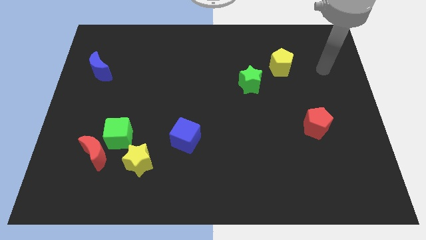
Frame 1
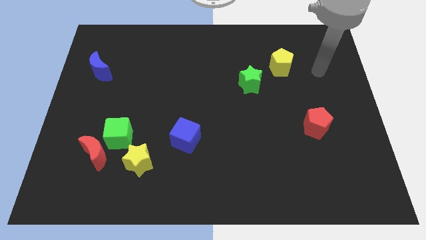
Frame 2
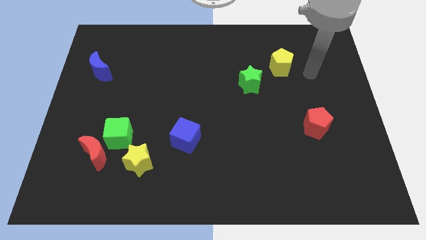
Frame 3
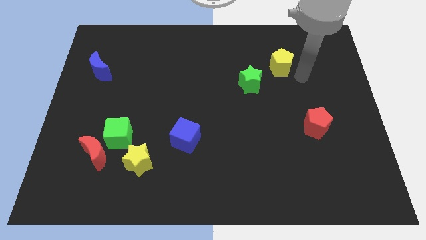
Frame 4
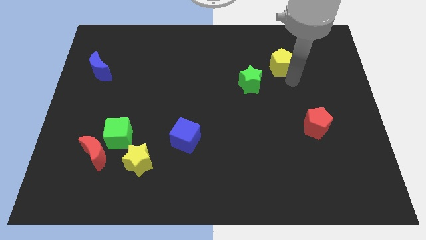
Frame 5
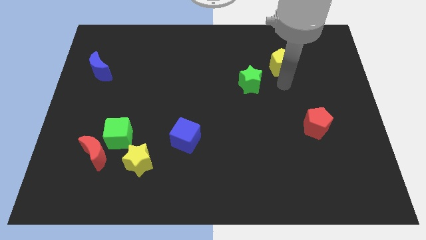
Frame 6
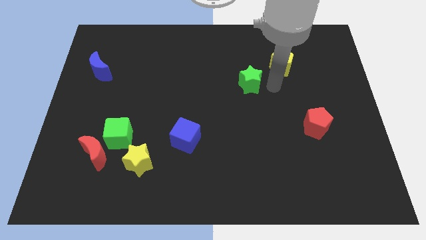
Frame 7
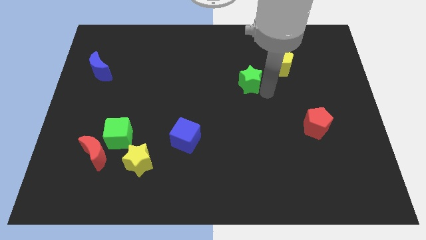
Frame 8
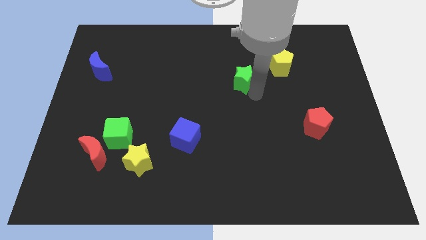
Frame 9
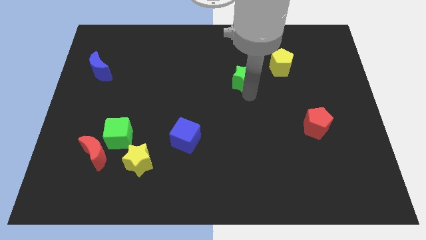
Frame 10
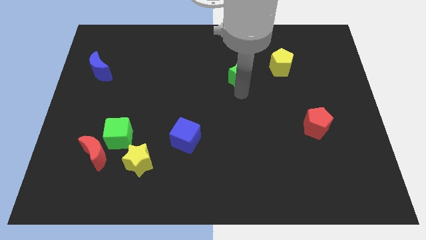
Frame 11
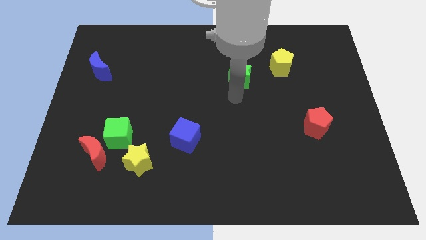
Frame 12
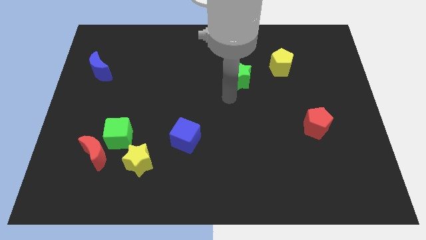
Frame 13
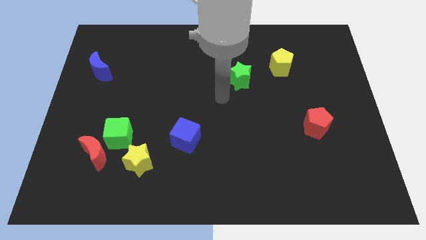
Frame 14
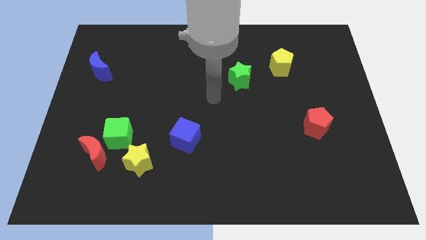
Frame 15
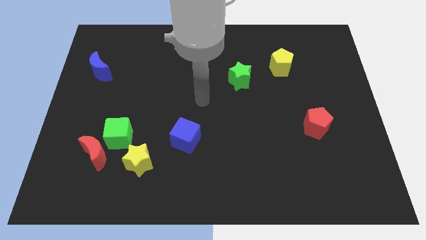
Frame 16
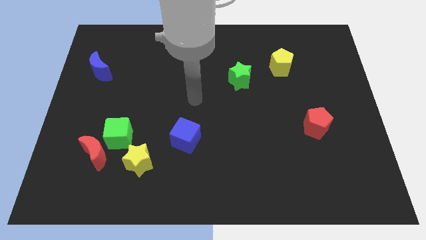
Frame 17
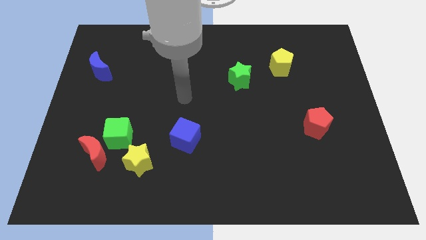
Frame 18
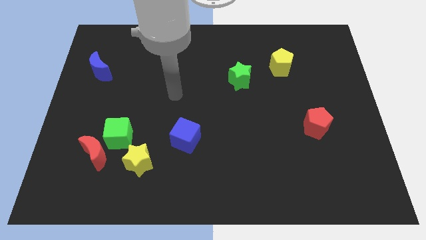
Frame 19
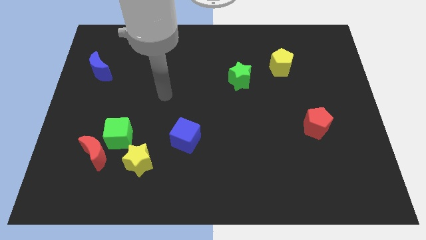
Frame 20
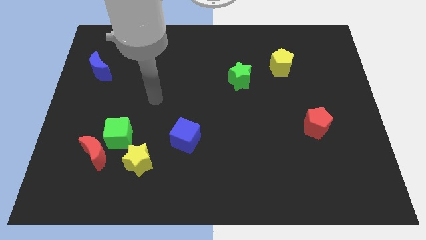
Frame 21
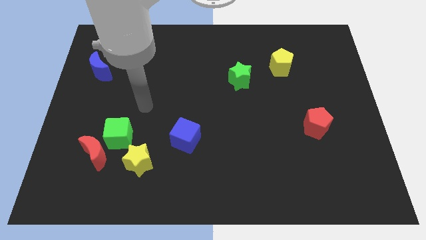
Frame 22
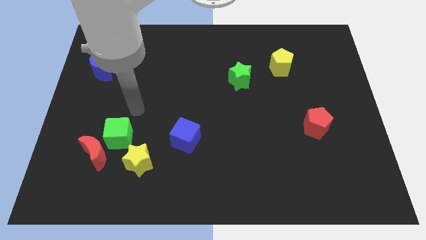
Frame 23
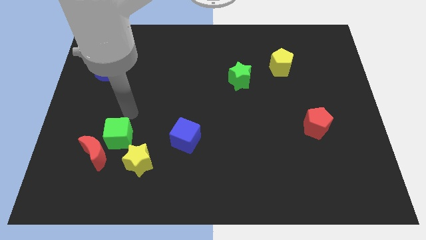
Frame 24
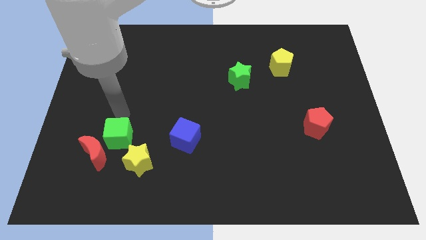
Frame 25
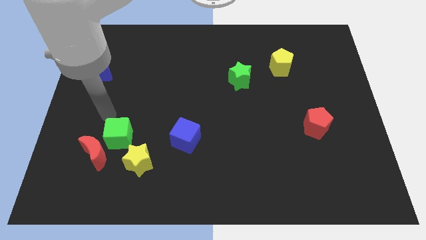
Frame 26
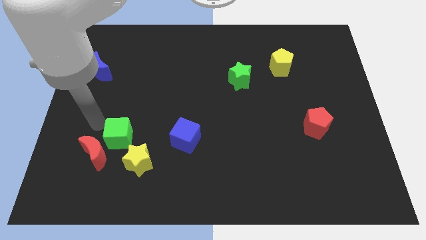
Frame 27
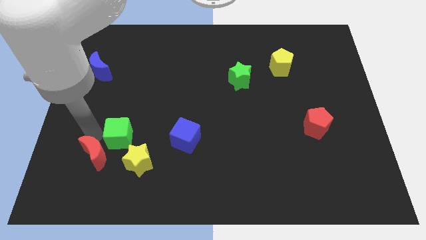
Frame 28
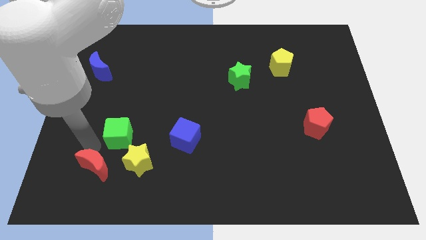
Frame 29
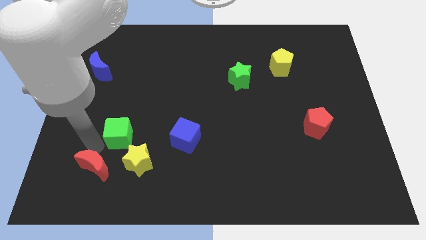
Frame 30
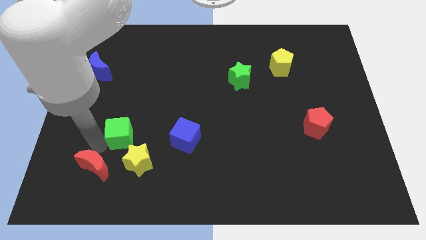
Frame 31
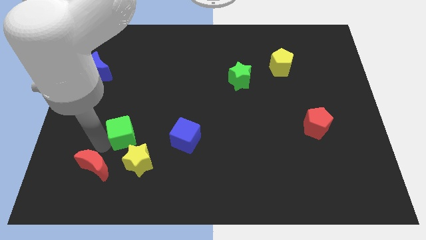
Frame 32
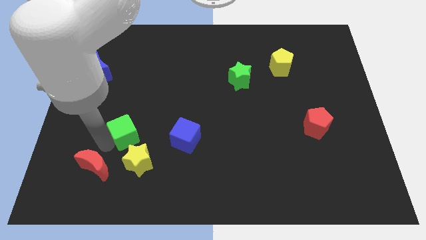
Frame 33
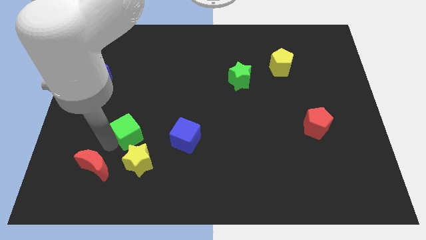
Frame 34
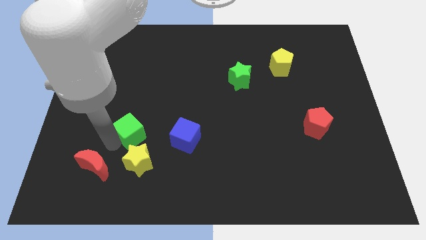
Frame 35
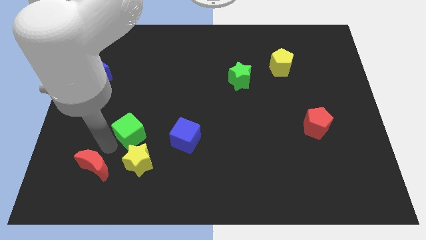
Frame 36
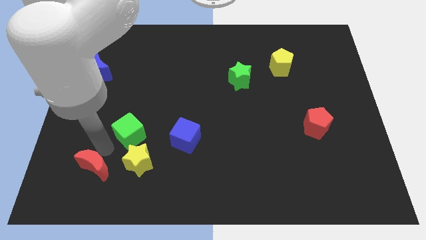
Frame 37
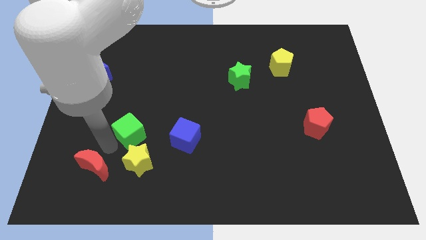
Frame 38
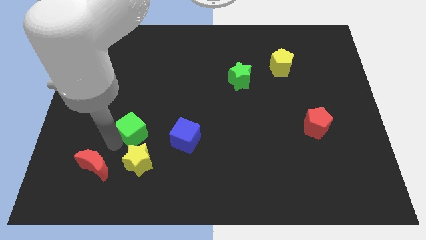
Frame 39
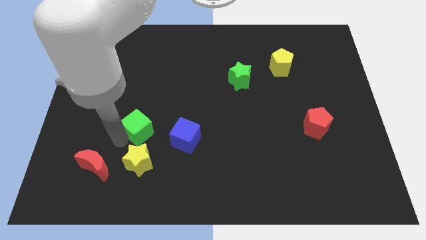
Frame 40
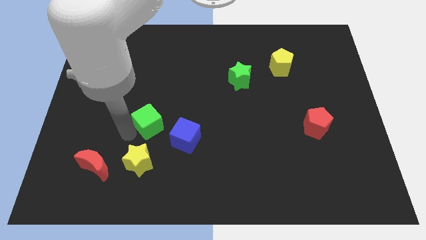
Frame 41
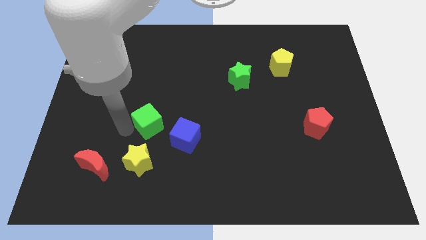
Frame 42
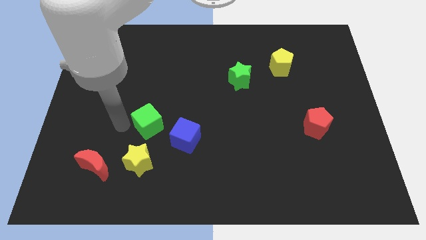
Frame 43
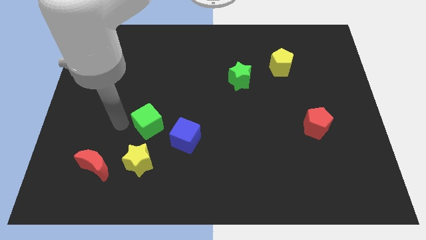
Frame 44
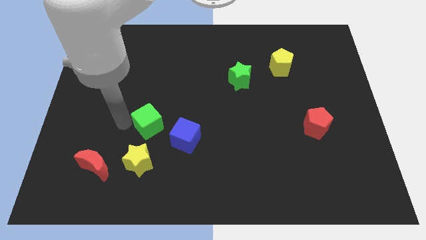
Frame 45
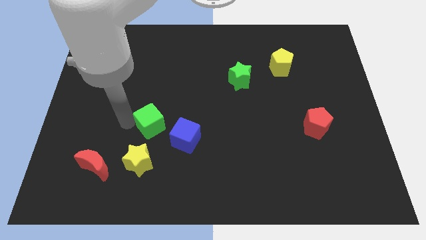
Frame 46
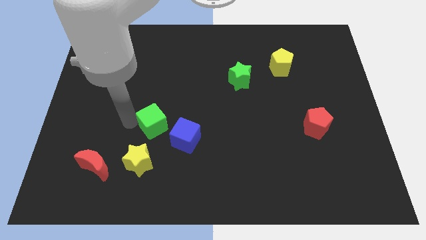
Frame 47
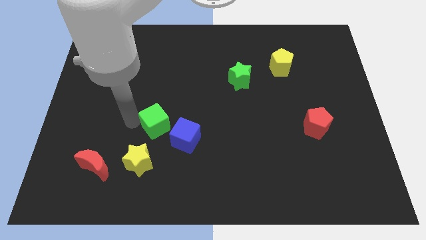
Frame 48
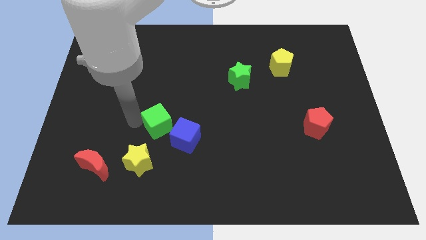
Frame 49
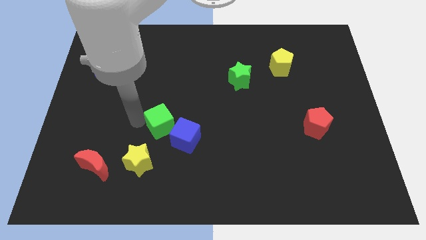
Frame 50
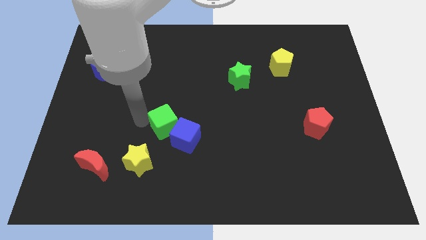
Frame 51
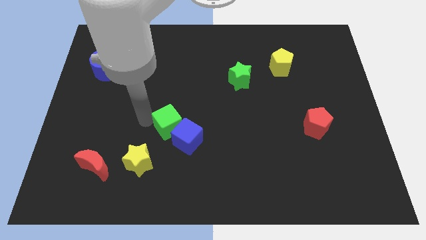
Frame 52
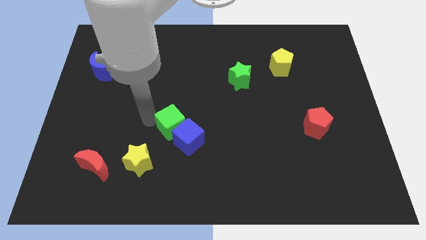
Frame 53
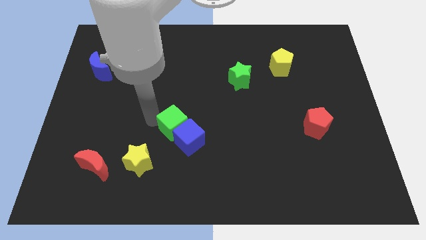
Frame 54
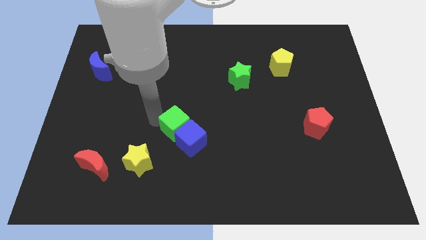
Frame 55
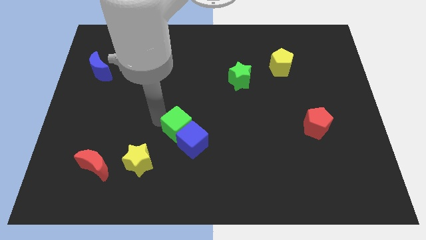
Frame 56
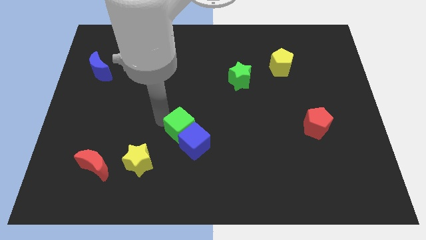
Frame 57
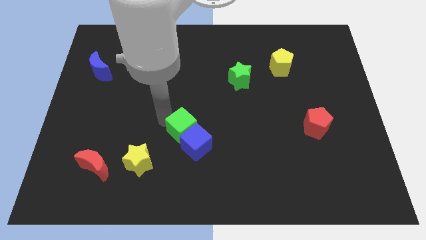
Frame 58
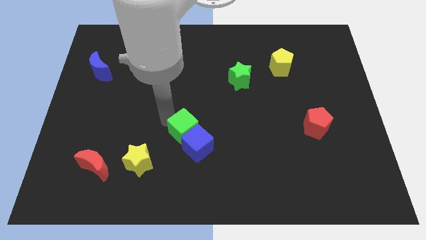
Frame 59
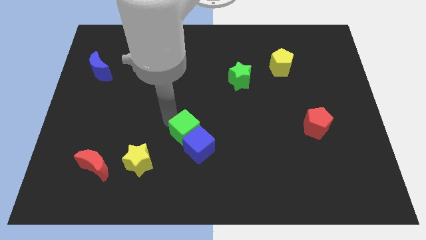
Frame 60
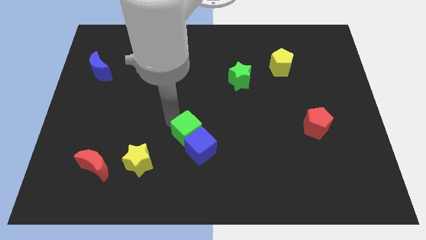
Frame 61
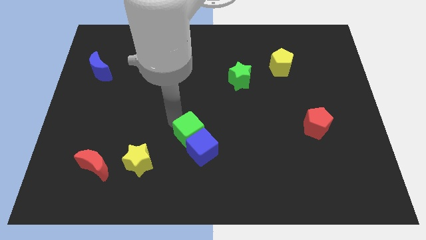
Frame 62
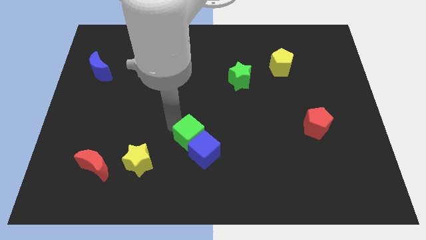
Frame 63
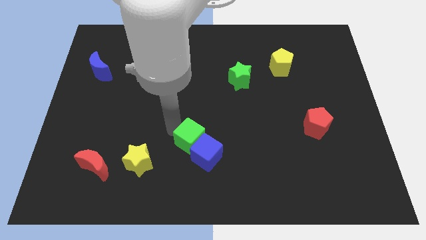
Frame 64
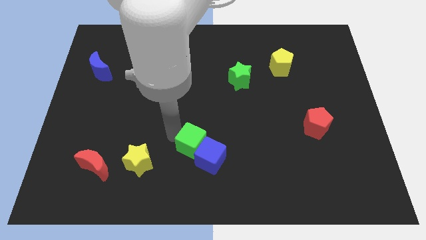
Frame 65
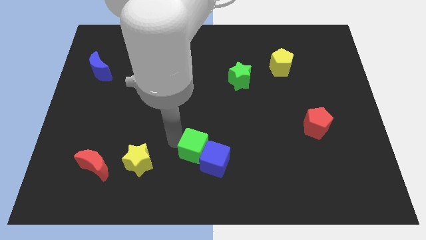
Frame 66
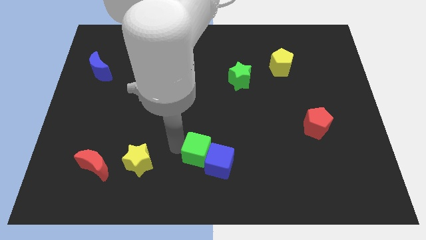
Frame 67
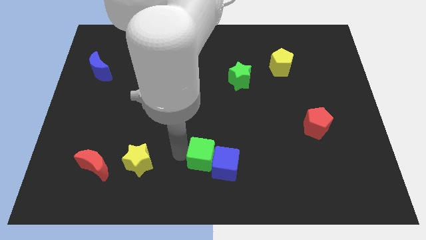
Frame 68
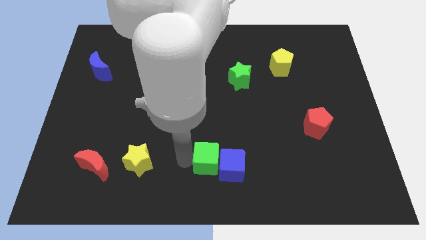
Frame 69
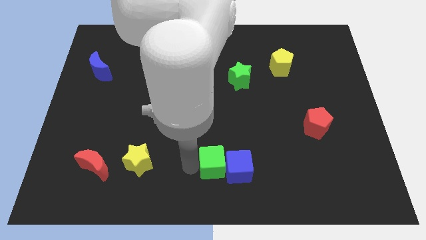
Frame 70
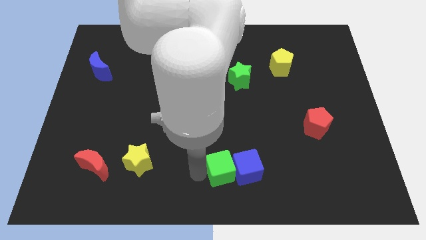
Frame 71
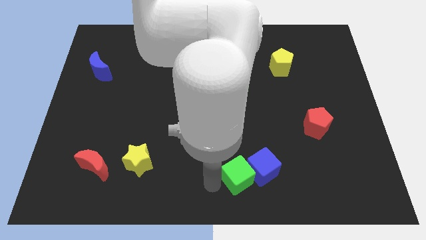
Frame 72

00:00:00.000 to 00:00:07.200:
slide the green cube to the right

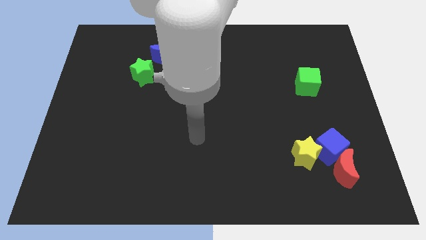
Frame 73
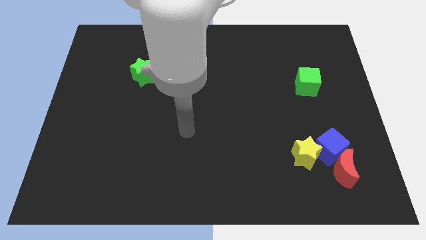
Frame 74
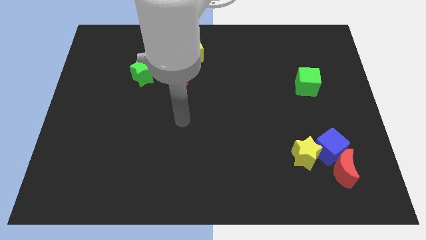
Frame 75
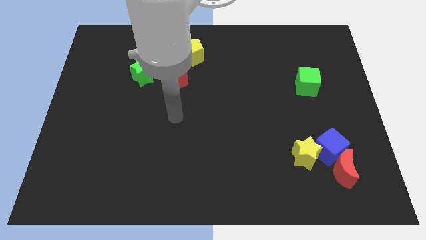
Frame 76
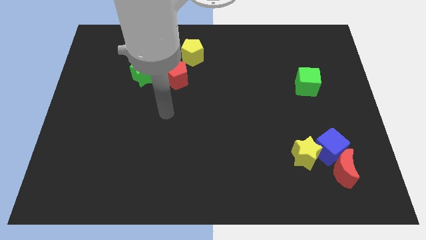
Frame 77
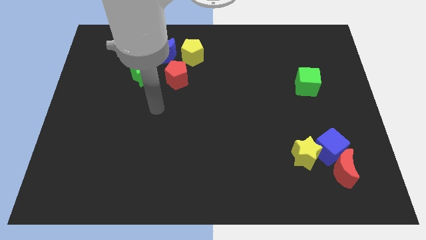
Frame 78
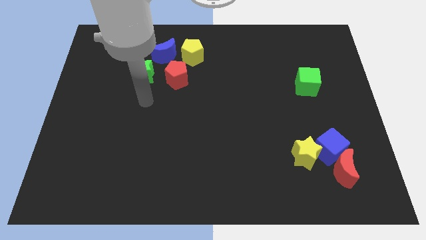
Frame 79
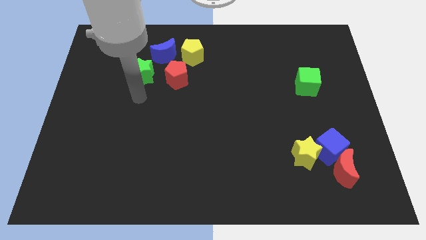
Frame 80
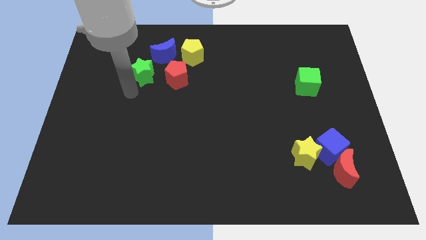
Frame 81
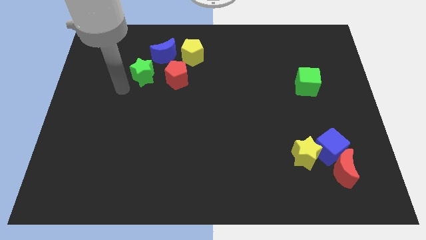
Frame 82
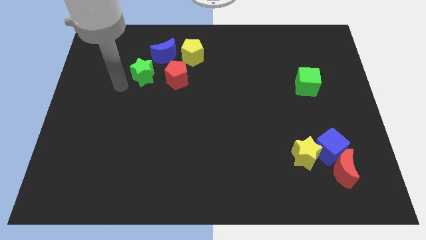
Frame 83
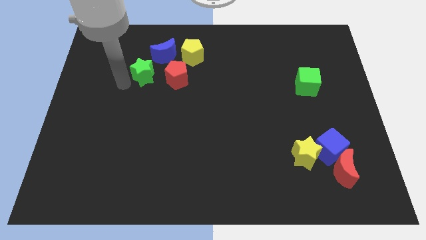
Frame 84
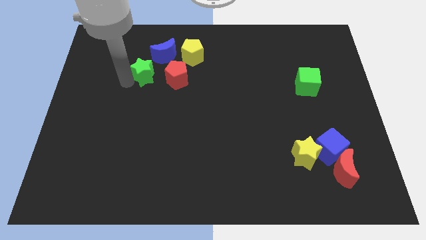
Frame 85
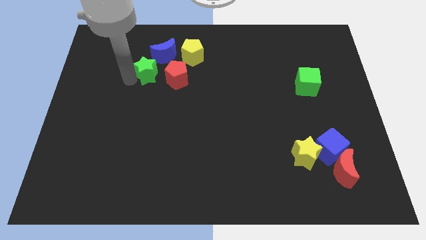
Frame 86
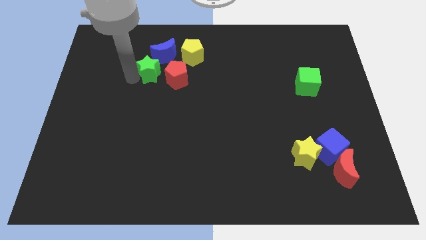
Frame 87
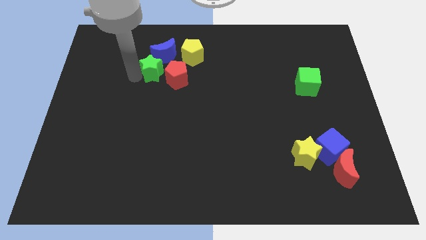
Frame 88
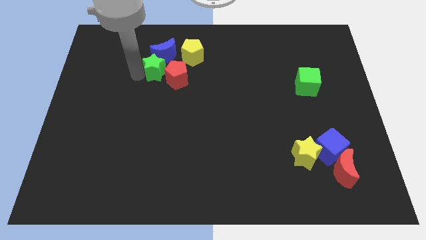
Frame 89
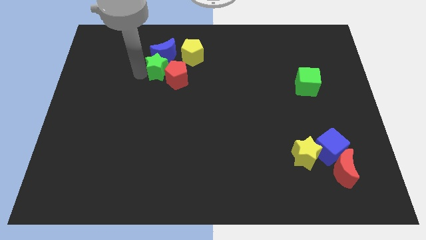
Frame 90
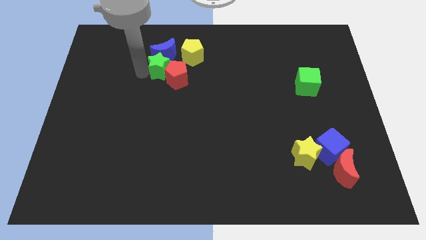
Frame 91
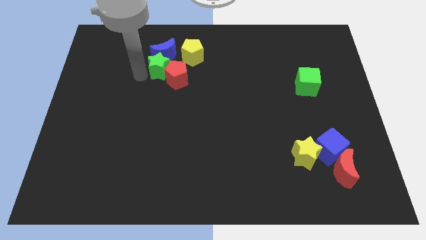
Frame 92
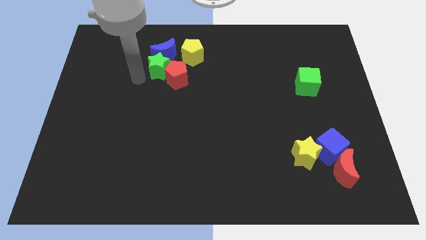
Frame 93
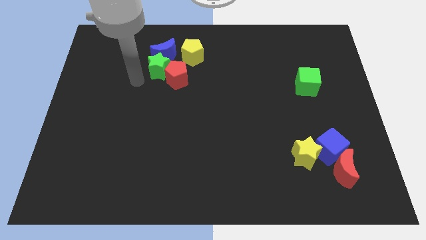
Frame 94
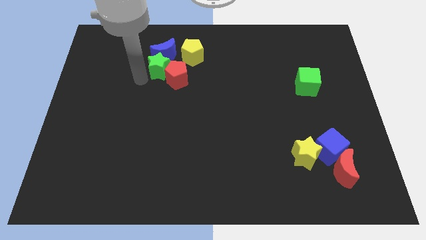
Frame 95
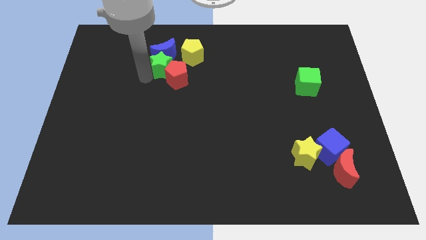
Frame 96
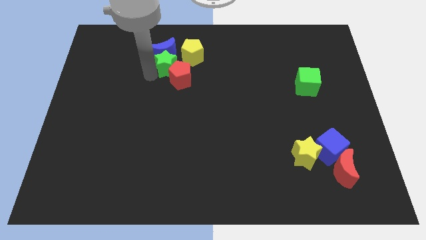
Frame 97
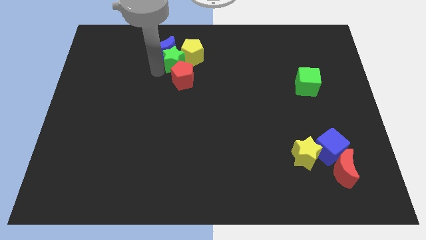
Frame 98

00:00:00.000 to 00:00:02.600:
move the green star right a bit
